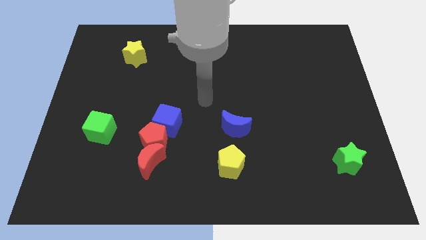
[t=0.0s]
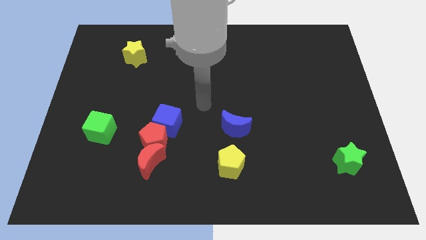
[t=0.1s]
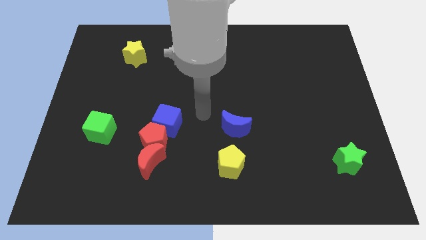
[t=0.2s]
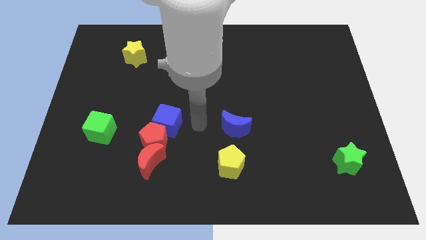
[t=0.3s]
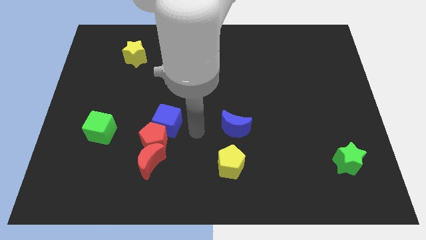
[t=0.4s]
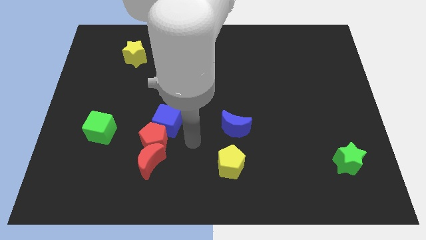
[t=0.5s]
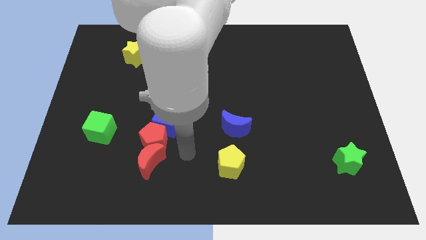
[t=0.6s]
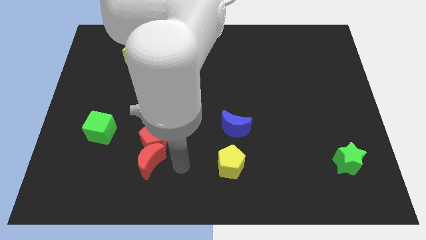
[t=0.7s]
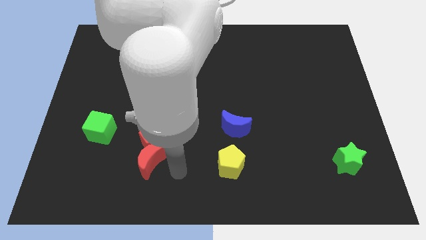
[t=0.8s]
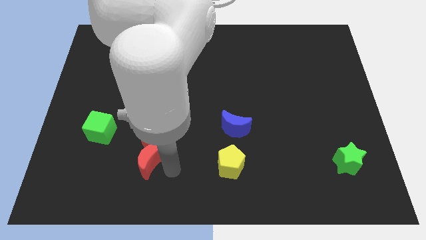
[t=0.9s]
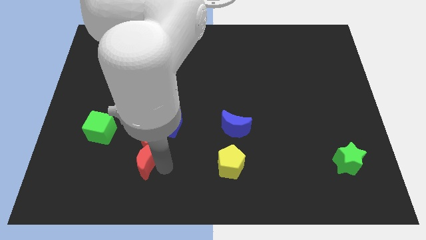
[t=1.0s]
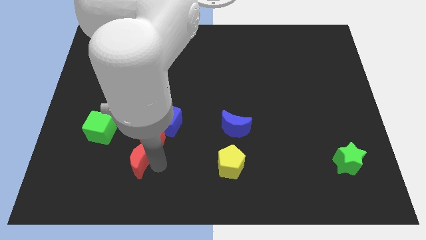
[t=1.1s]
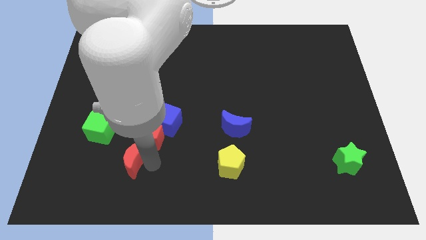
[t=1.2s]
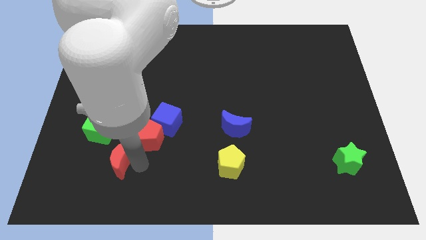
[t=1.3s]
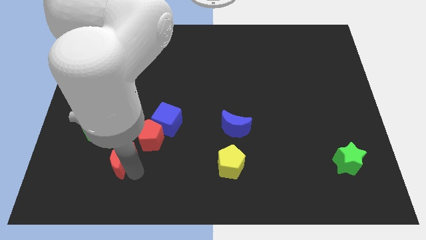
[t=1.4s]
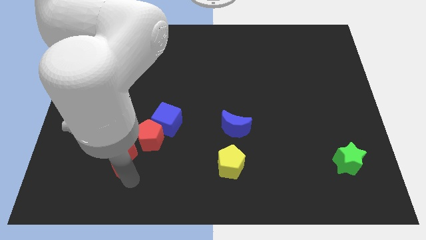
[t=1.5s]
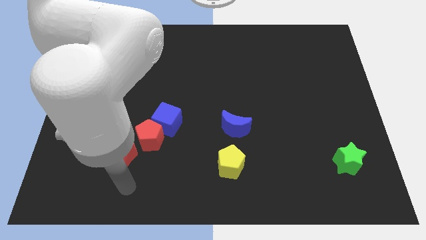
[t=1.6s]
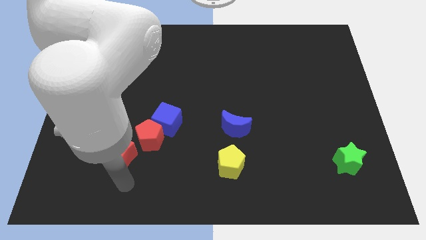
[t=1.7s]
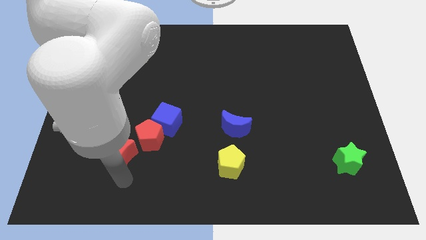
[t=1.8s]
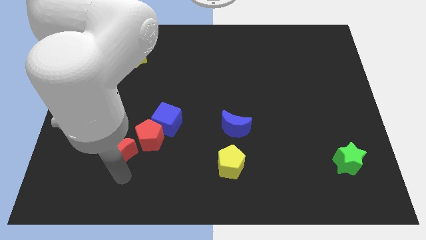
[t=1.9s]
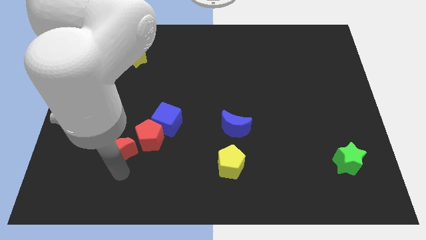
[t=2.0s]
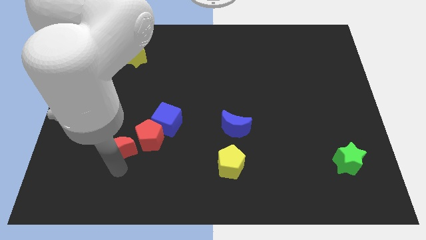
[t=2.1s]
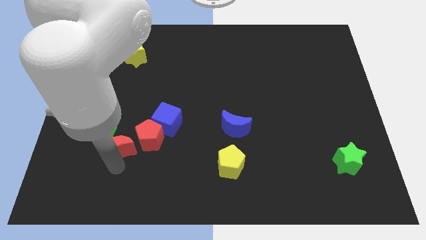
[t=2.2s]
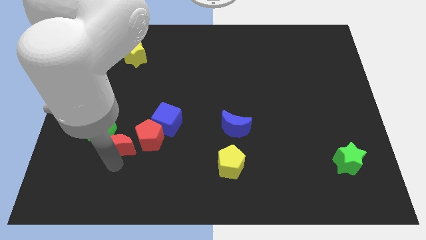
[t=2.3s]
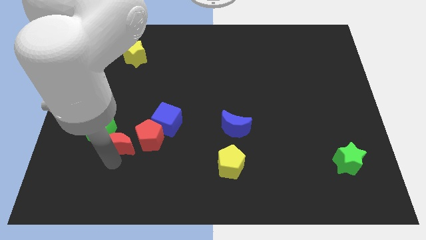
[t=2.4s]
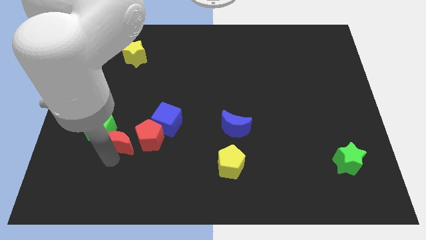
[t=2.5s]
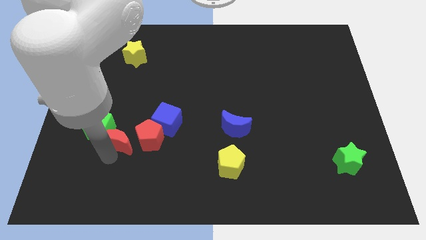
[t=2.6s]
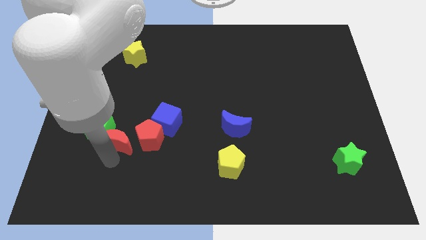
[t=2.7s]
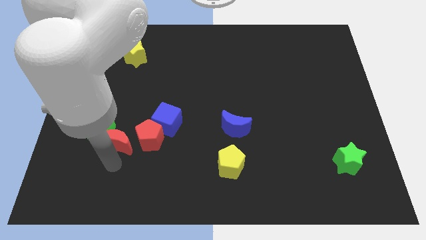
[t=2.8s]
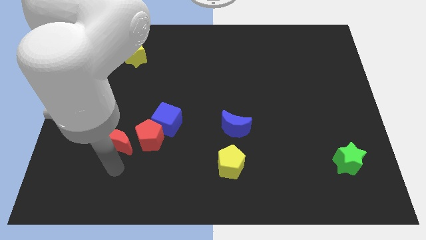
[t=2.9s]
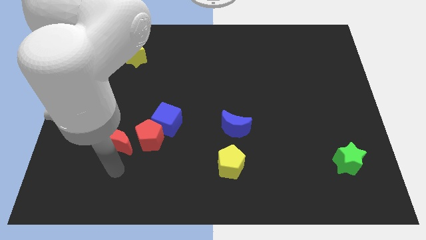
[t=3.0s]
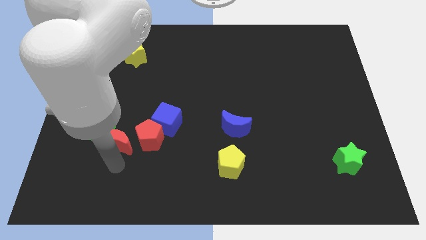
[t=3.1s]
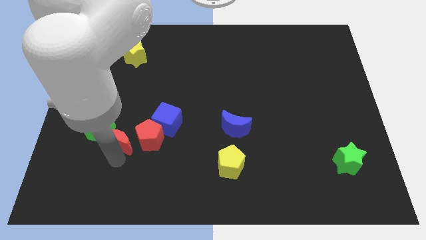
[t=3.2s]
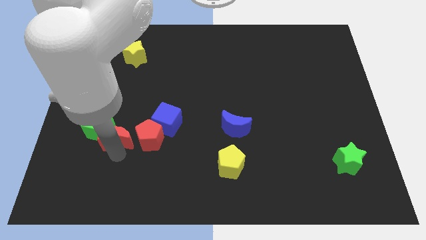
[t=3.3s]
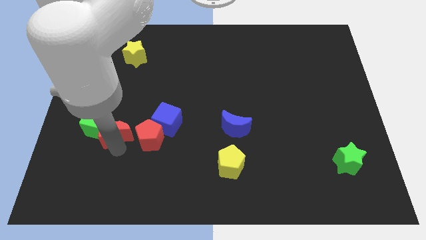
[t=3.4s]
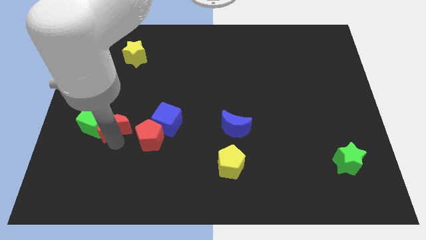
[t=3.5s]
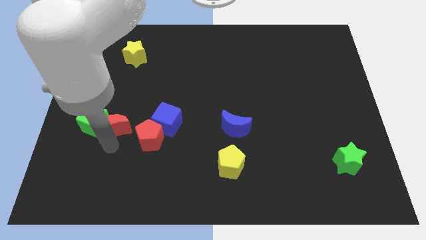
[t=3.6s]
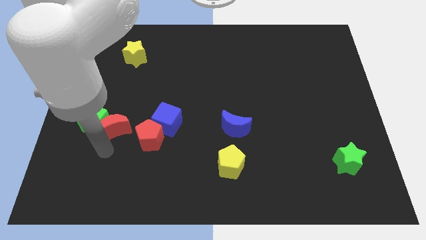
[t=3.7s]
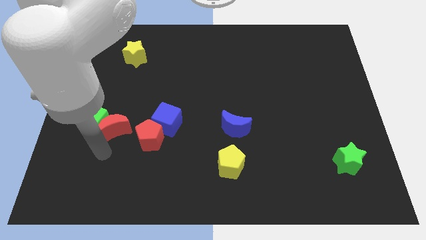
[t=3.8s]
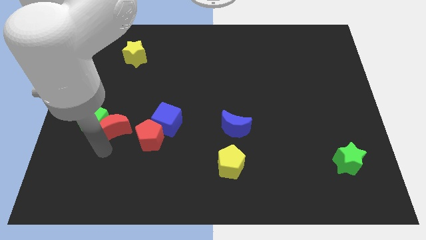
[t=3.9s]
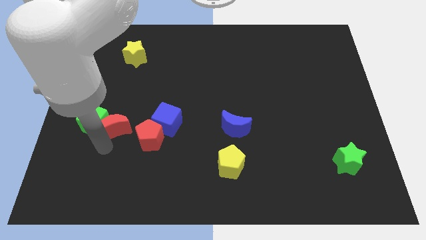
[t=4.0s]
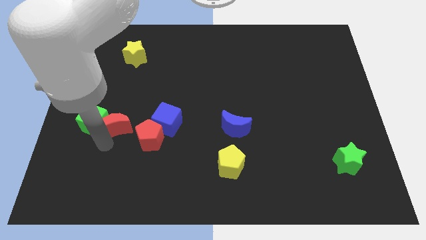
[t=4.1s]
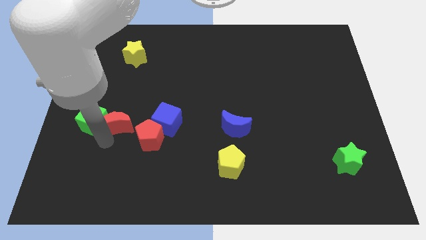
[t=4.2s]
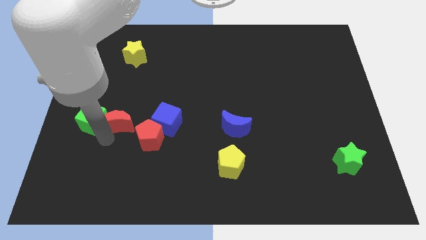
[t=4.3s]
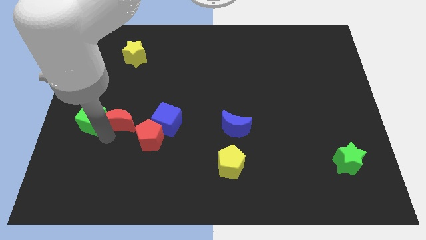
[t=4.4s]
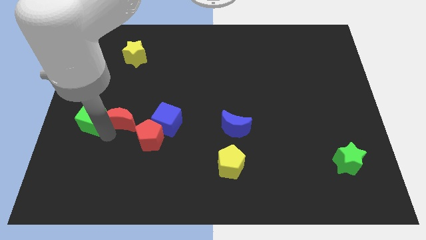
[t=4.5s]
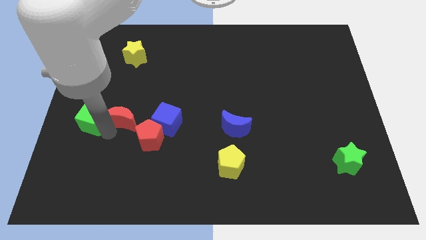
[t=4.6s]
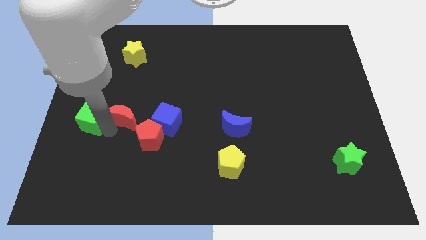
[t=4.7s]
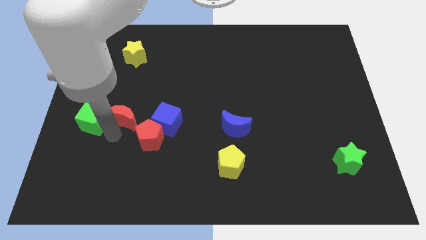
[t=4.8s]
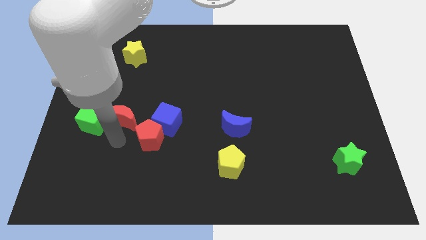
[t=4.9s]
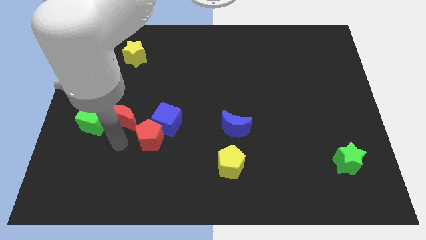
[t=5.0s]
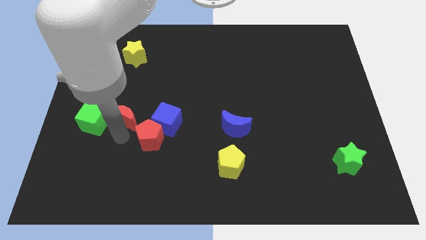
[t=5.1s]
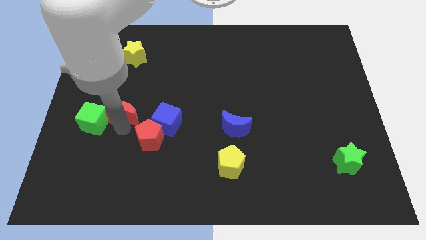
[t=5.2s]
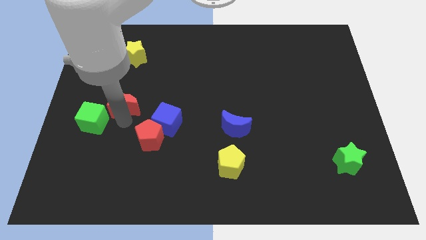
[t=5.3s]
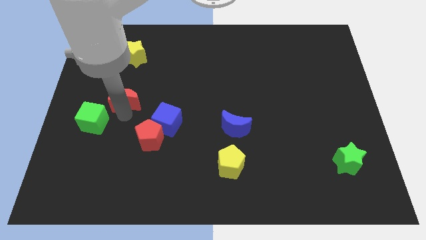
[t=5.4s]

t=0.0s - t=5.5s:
slide the red moon to the bottom of the yellow star

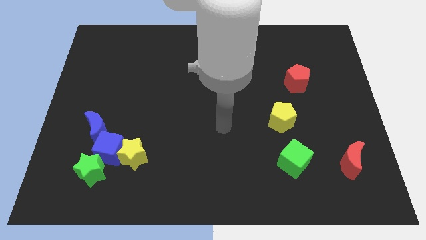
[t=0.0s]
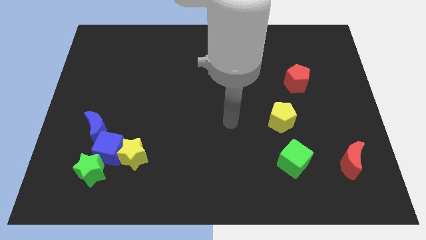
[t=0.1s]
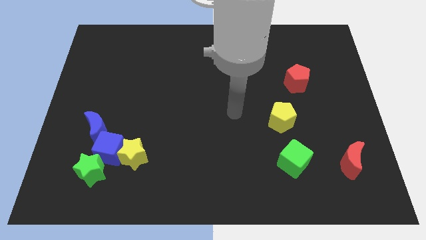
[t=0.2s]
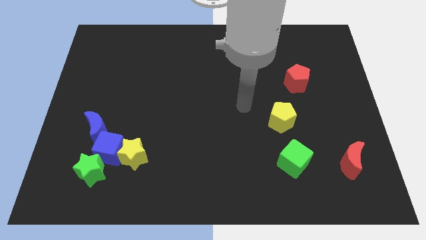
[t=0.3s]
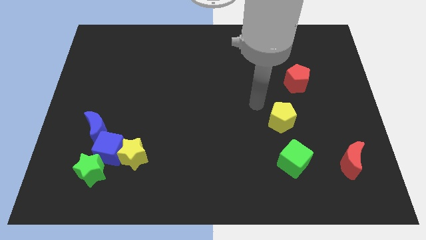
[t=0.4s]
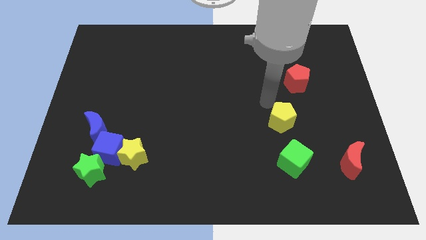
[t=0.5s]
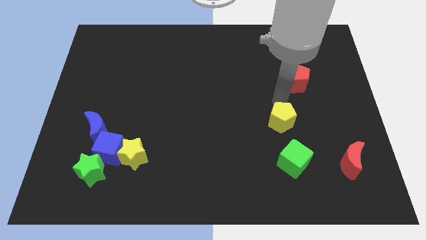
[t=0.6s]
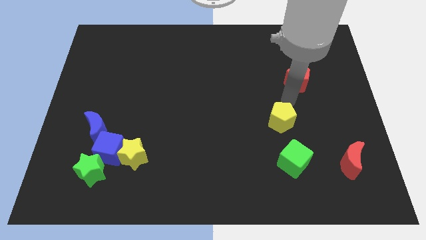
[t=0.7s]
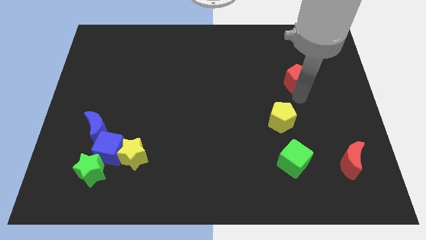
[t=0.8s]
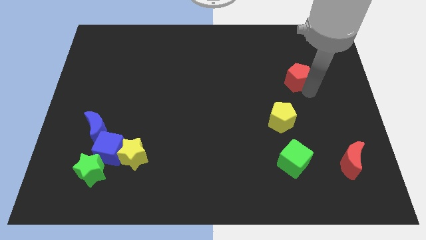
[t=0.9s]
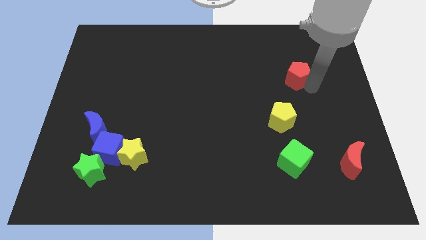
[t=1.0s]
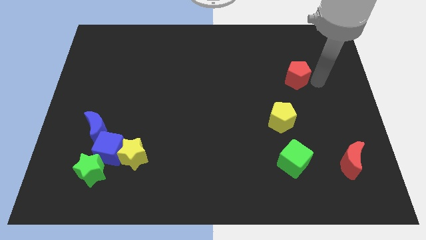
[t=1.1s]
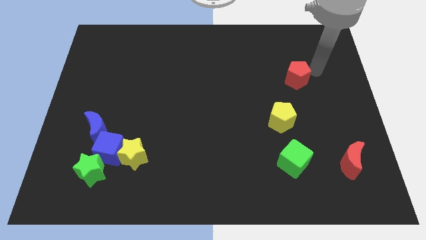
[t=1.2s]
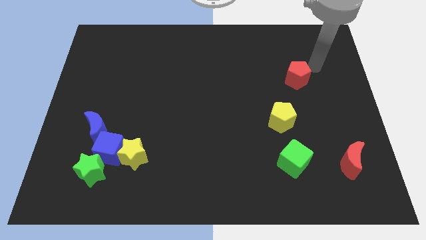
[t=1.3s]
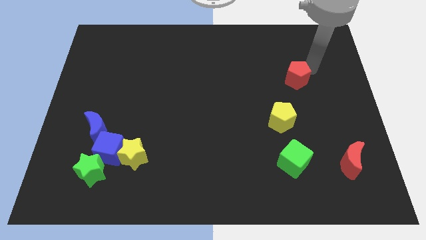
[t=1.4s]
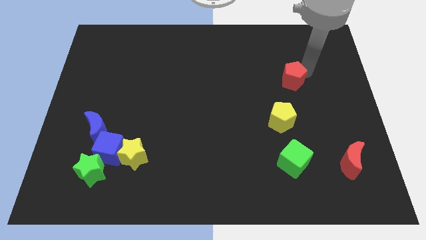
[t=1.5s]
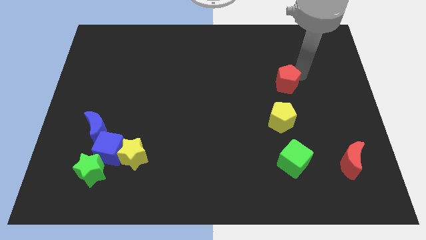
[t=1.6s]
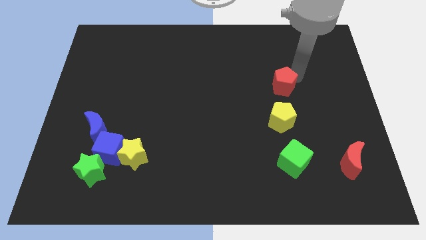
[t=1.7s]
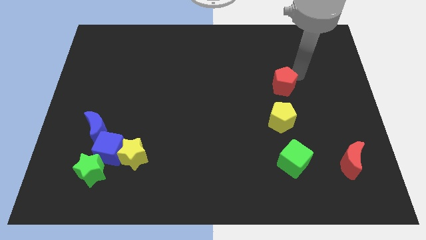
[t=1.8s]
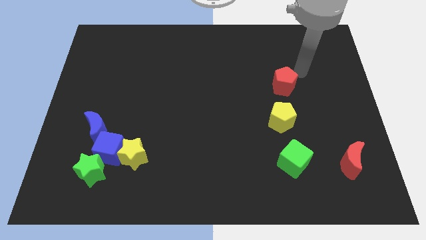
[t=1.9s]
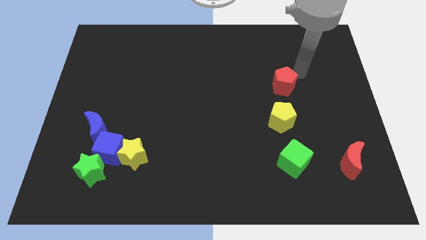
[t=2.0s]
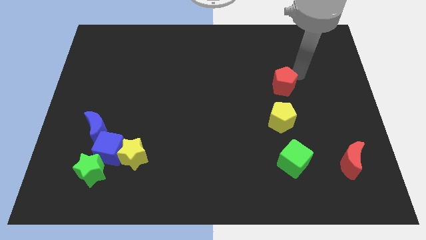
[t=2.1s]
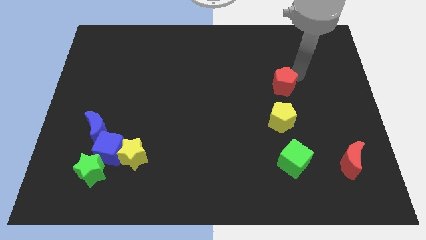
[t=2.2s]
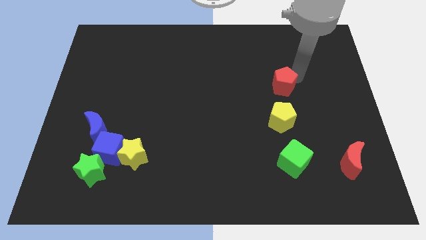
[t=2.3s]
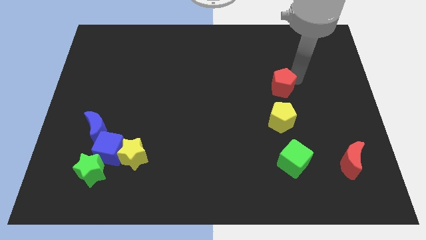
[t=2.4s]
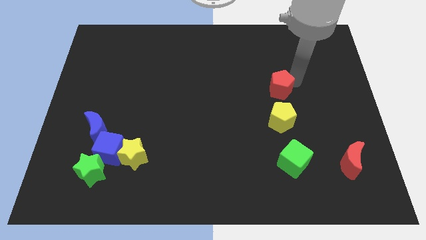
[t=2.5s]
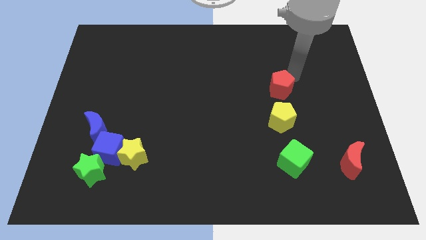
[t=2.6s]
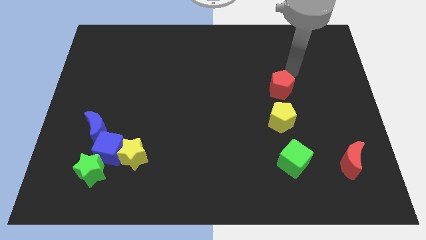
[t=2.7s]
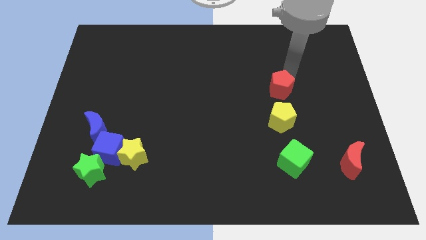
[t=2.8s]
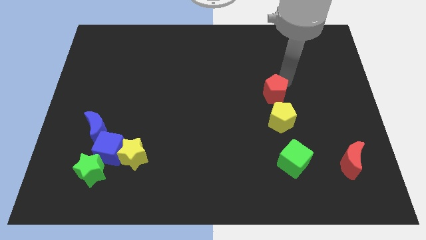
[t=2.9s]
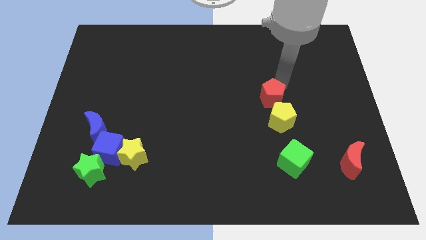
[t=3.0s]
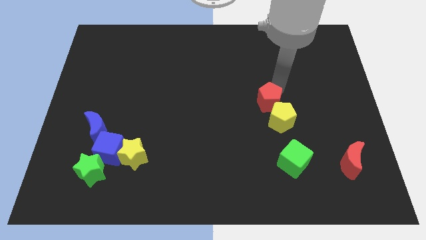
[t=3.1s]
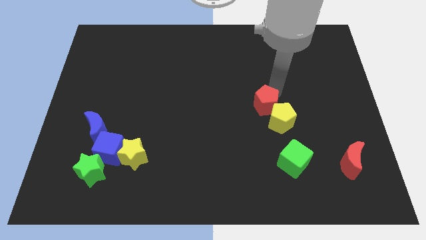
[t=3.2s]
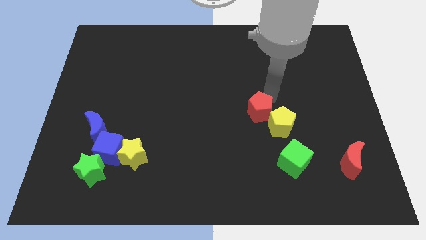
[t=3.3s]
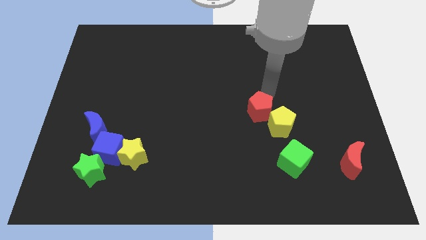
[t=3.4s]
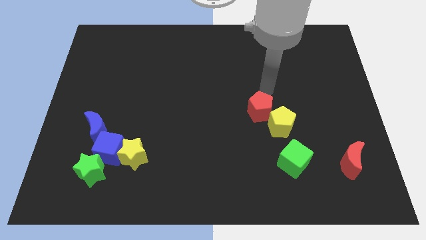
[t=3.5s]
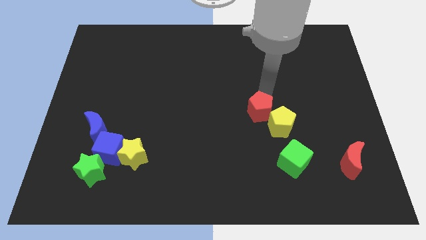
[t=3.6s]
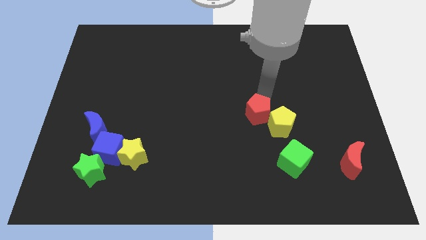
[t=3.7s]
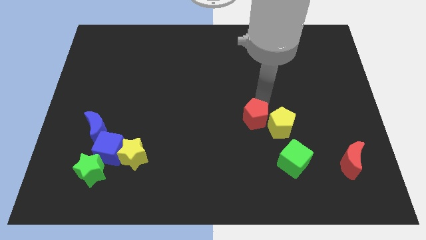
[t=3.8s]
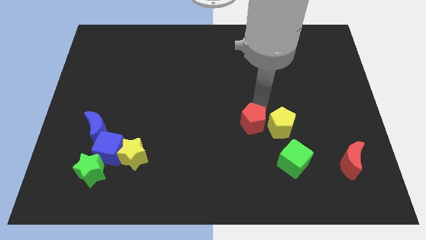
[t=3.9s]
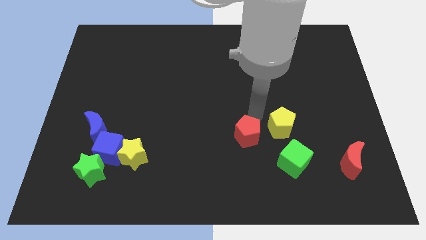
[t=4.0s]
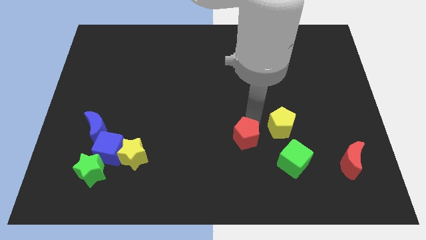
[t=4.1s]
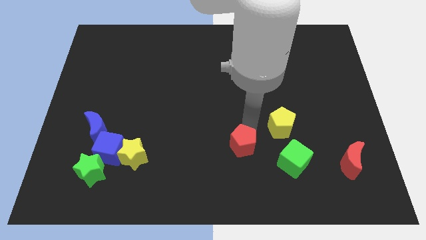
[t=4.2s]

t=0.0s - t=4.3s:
put the red pentagon to the left side of the green cube
